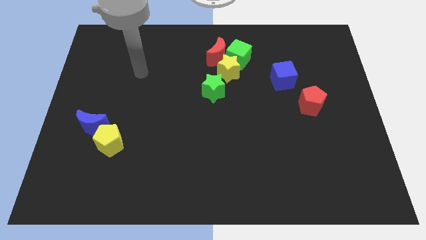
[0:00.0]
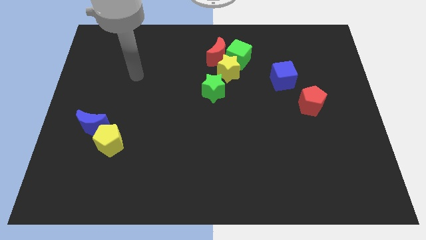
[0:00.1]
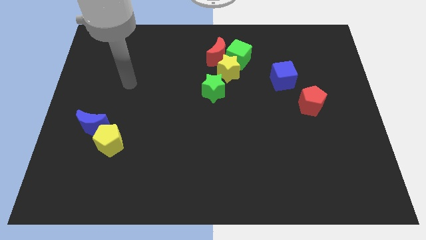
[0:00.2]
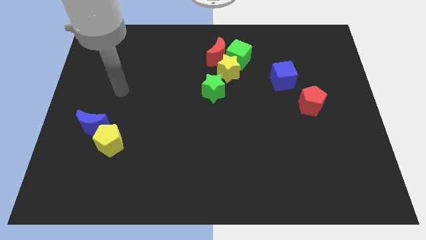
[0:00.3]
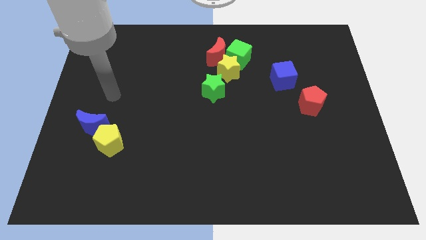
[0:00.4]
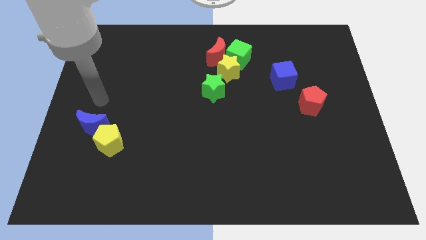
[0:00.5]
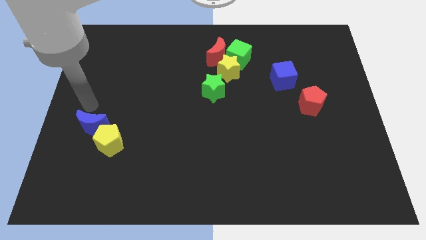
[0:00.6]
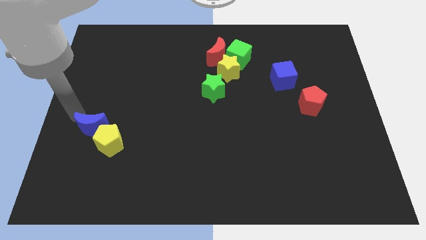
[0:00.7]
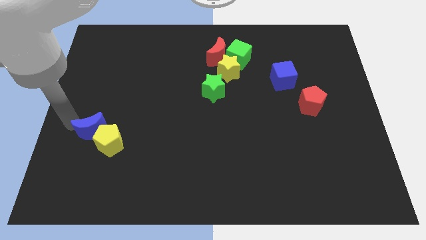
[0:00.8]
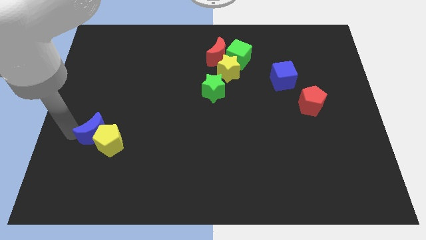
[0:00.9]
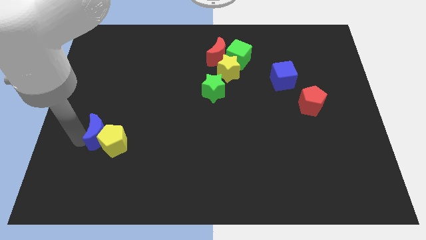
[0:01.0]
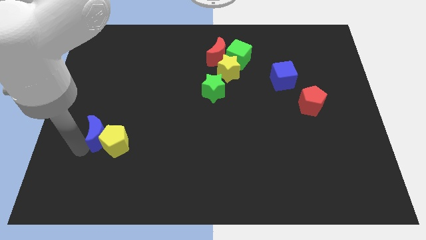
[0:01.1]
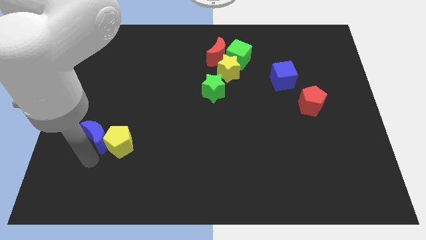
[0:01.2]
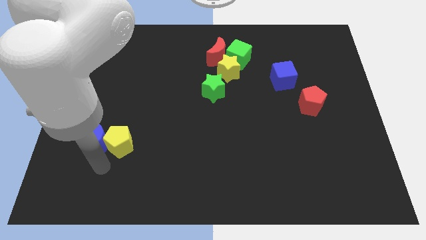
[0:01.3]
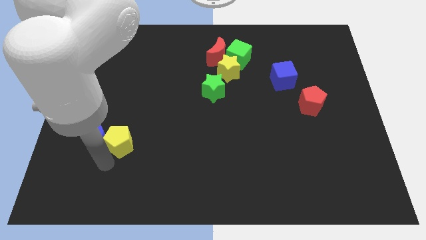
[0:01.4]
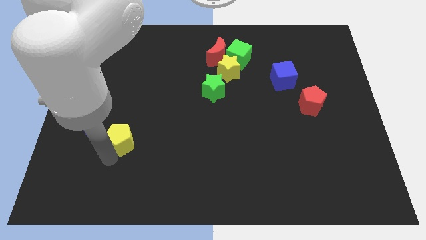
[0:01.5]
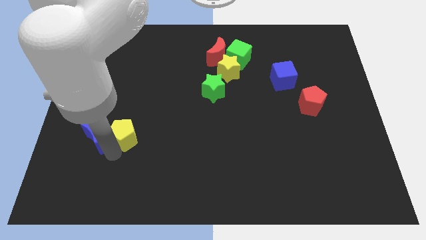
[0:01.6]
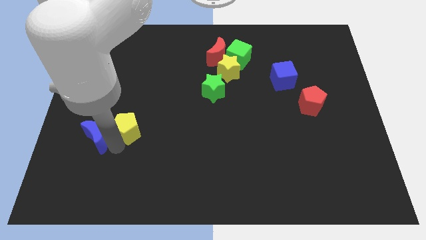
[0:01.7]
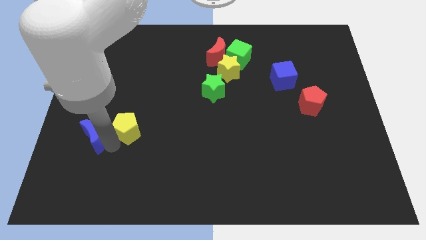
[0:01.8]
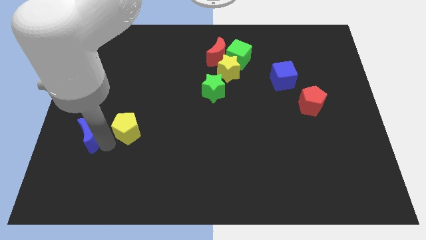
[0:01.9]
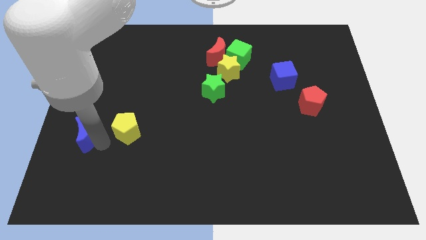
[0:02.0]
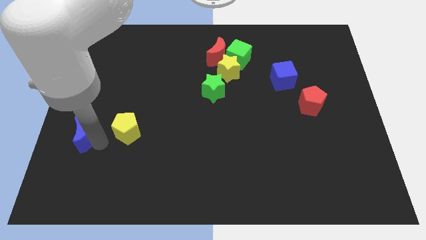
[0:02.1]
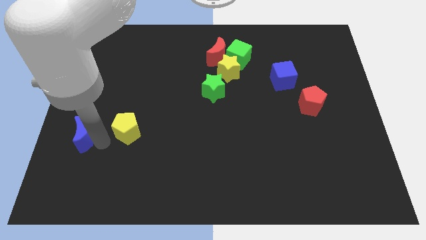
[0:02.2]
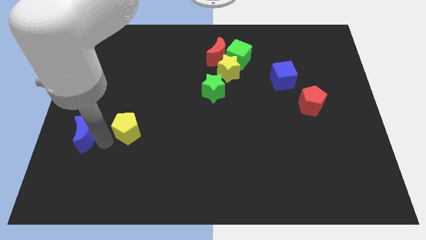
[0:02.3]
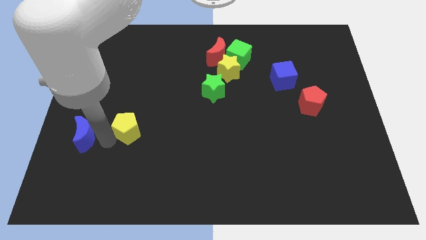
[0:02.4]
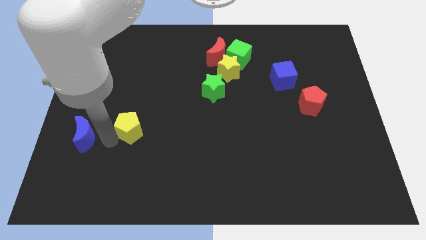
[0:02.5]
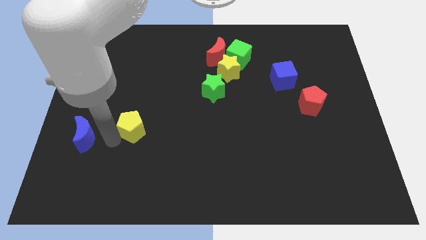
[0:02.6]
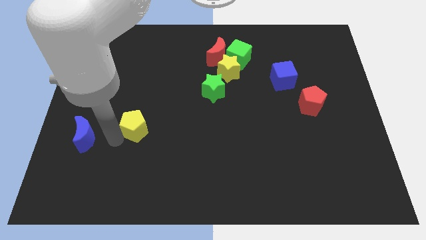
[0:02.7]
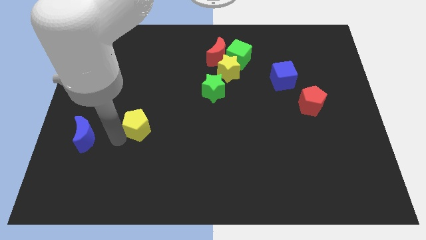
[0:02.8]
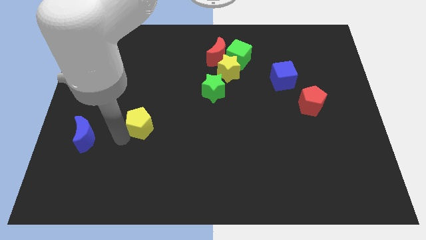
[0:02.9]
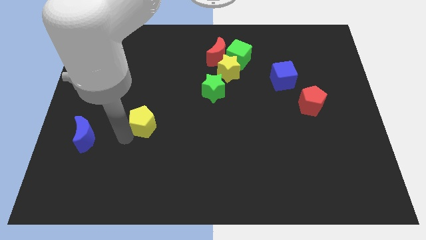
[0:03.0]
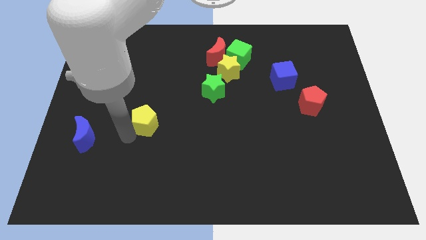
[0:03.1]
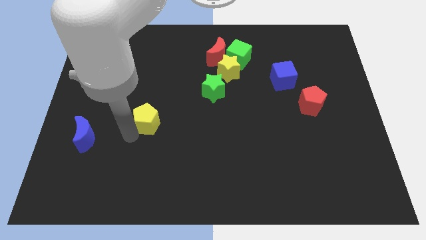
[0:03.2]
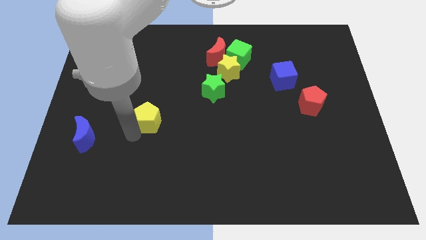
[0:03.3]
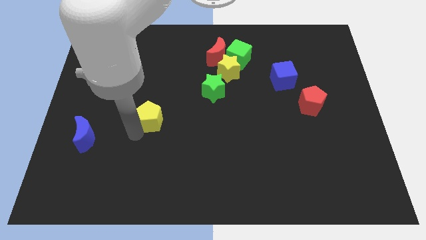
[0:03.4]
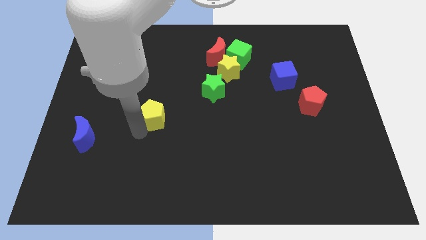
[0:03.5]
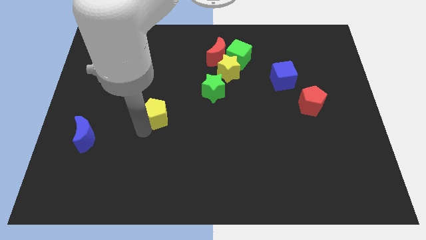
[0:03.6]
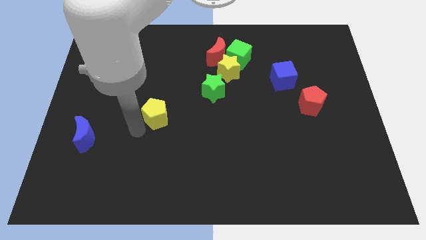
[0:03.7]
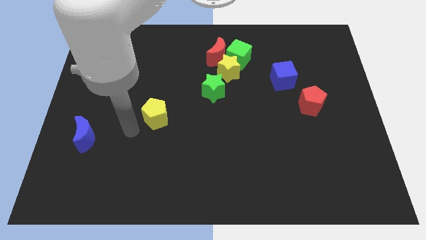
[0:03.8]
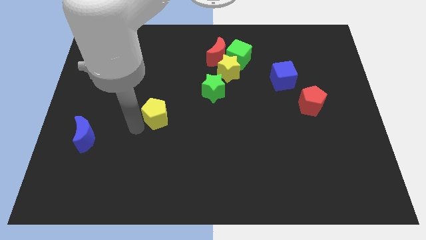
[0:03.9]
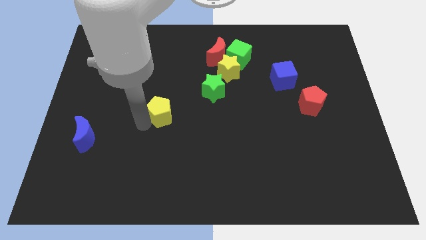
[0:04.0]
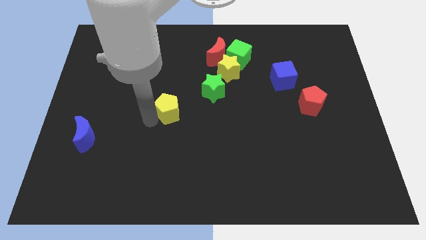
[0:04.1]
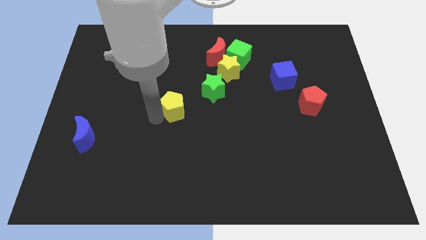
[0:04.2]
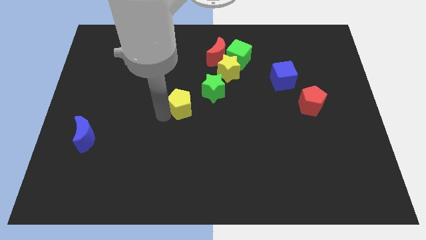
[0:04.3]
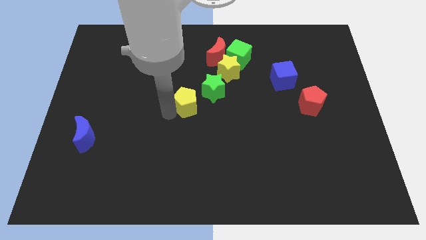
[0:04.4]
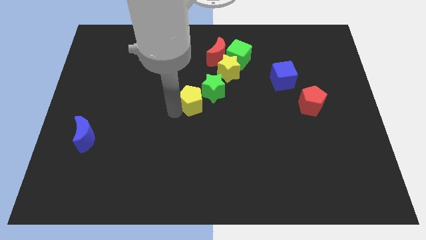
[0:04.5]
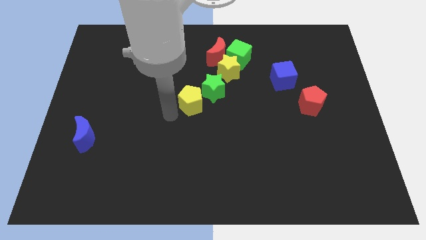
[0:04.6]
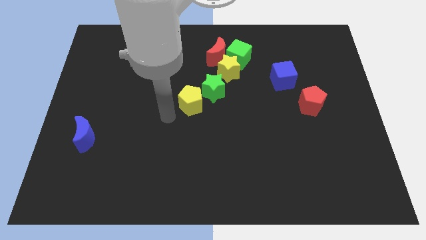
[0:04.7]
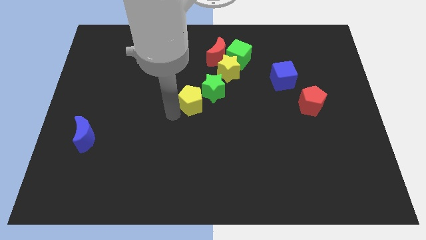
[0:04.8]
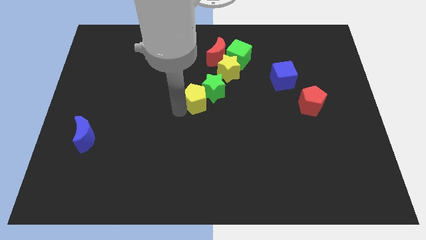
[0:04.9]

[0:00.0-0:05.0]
put the yellow pentagon to the green star

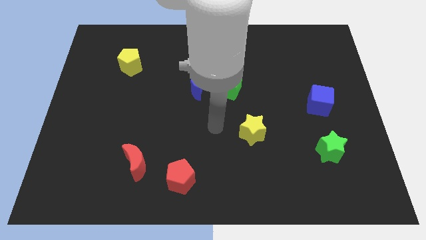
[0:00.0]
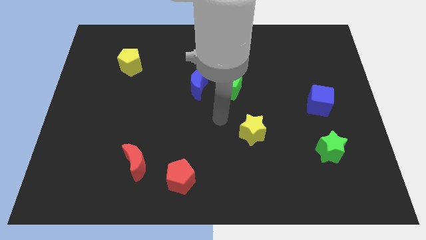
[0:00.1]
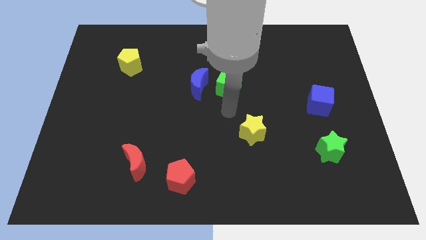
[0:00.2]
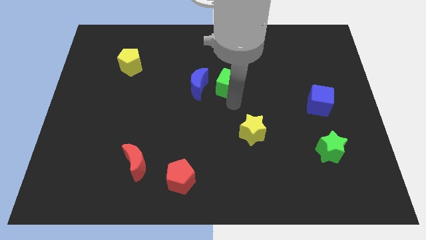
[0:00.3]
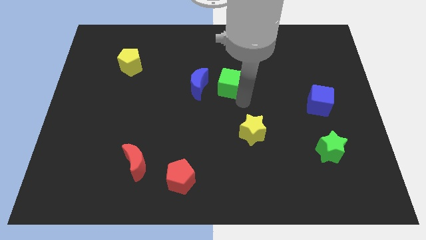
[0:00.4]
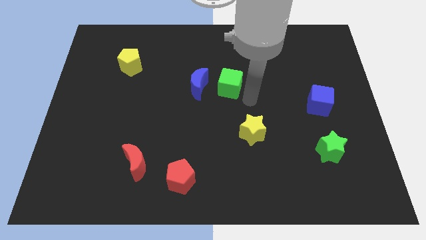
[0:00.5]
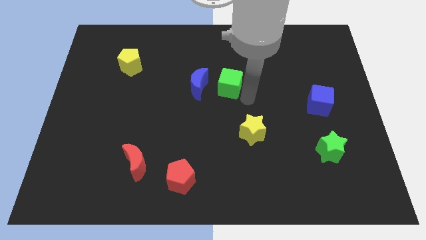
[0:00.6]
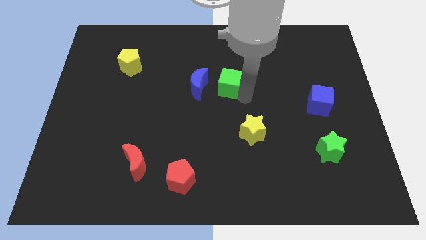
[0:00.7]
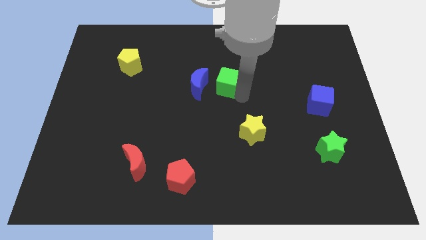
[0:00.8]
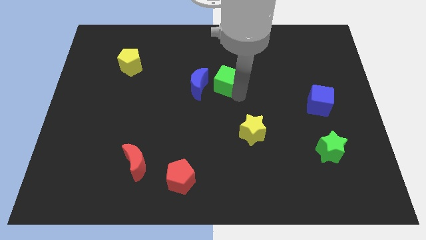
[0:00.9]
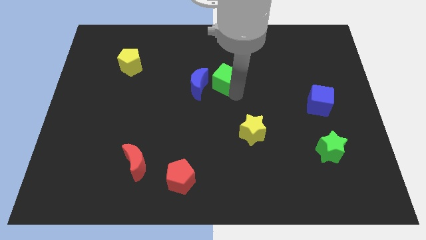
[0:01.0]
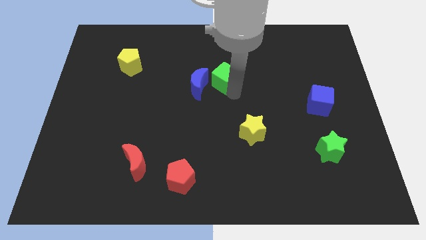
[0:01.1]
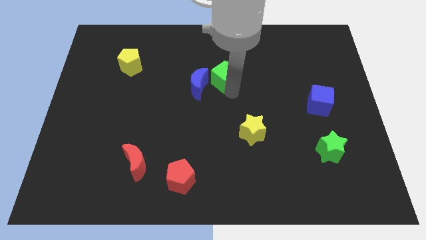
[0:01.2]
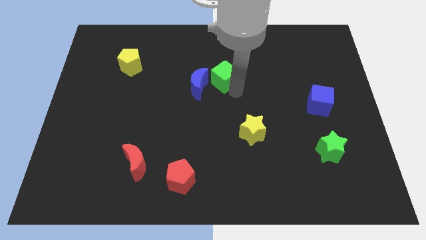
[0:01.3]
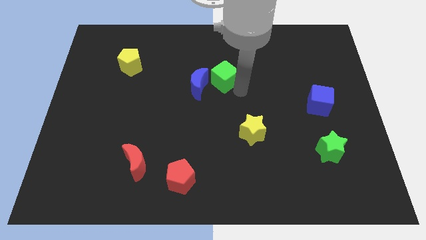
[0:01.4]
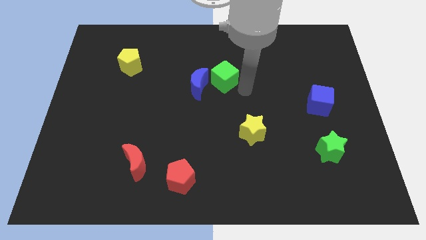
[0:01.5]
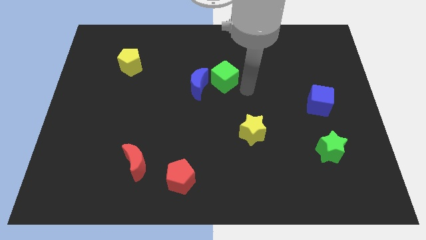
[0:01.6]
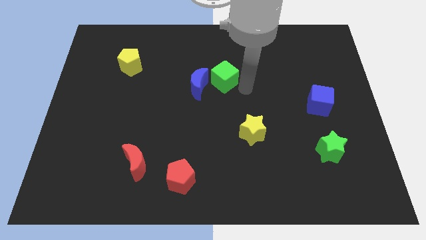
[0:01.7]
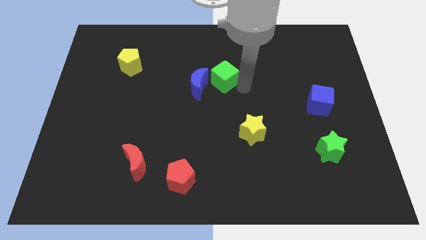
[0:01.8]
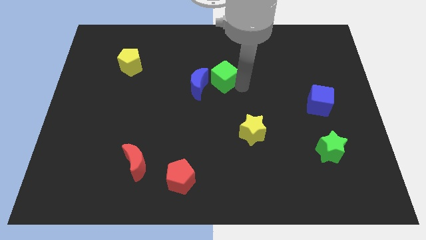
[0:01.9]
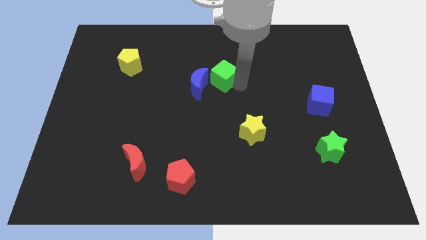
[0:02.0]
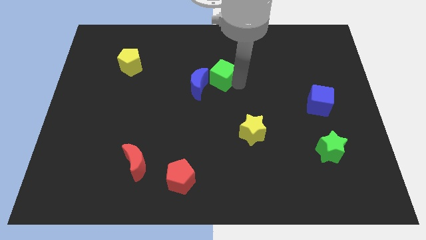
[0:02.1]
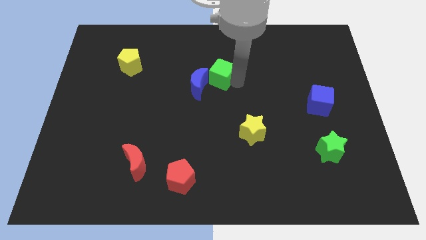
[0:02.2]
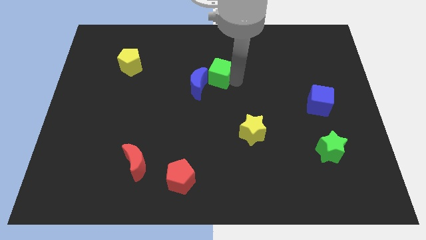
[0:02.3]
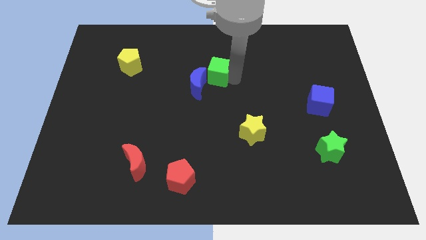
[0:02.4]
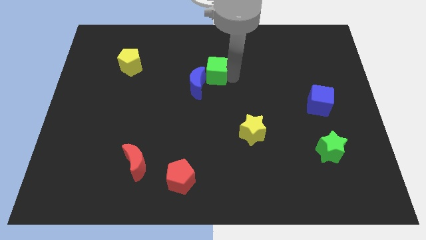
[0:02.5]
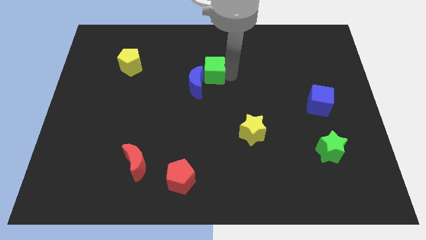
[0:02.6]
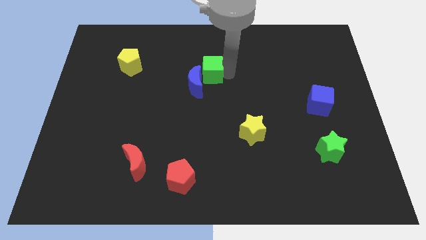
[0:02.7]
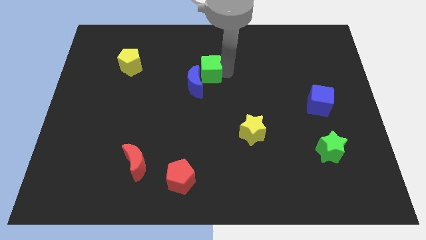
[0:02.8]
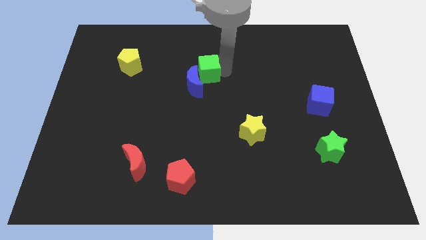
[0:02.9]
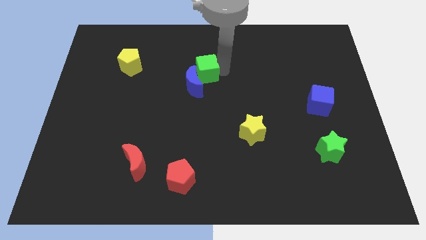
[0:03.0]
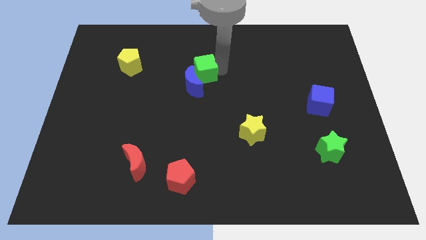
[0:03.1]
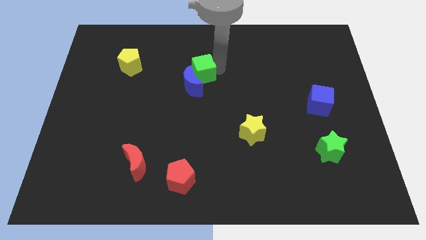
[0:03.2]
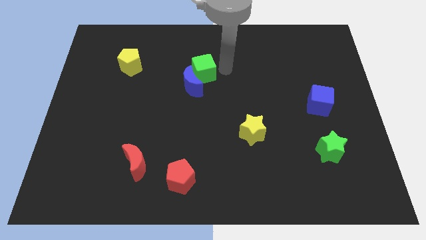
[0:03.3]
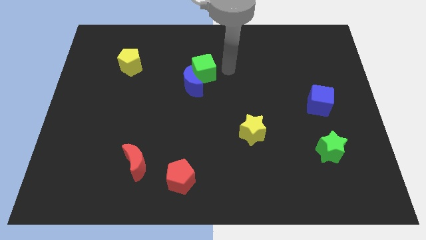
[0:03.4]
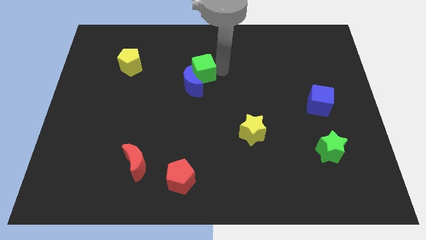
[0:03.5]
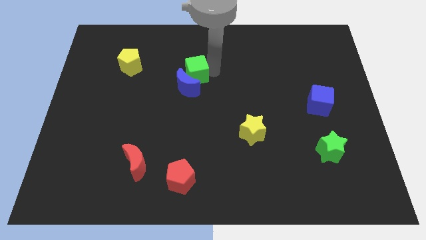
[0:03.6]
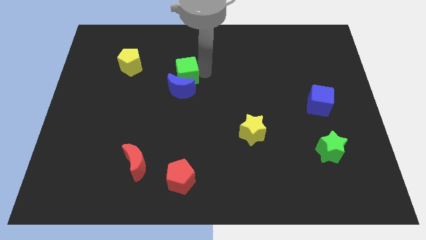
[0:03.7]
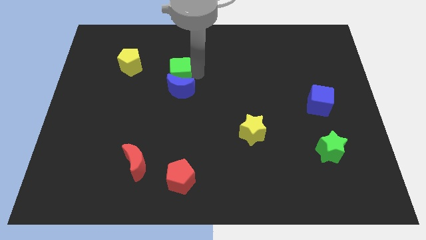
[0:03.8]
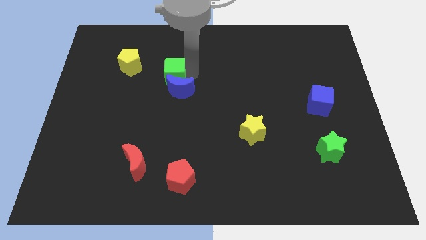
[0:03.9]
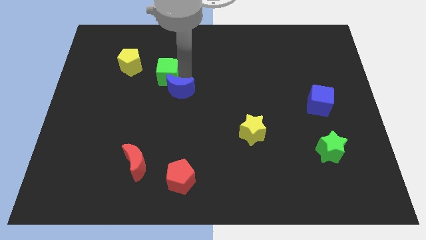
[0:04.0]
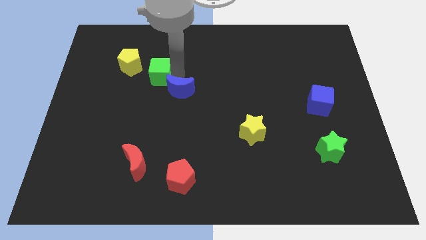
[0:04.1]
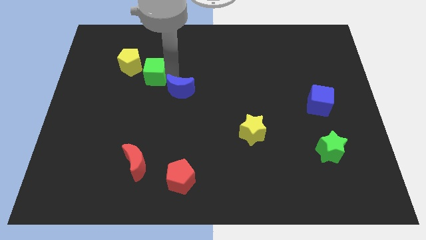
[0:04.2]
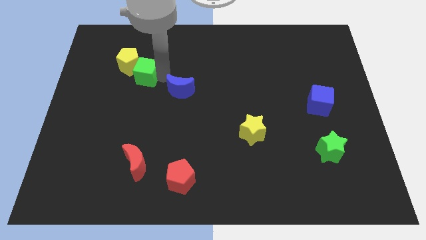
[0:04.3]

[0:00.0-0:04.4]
move the green cube next to the yellow pentagon
